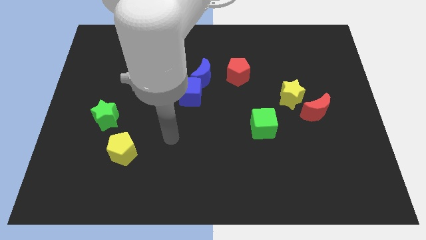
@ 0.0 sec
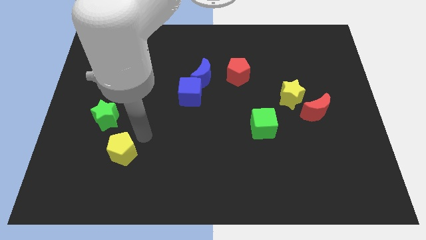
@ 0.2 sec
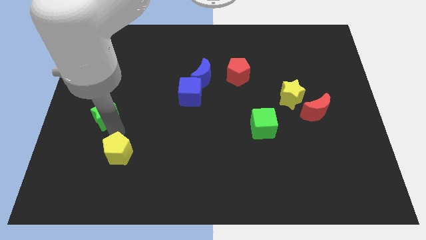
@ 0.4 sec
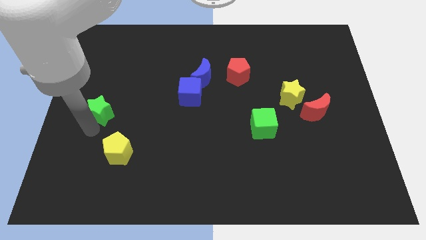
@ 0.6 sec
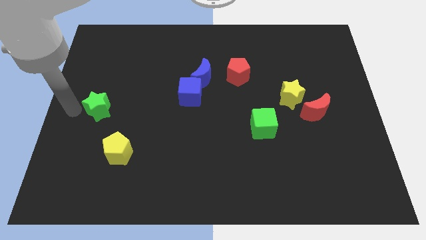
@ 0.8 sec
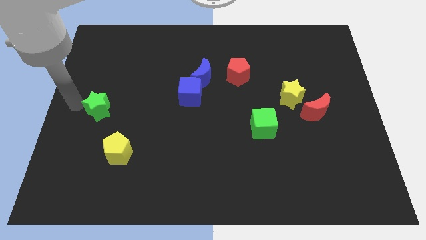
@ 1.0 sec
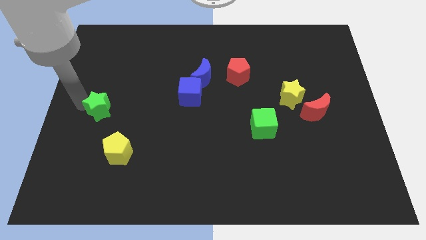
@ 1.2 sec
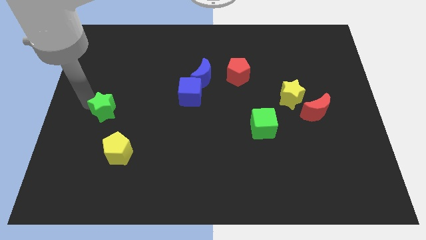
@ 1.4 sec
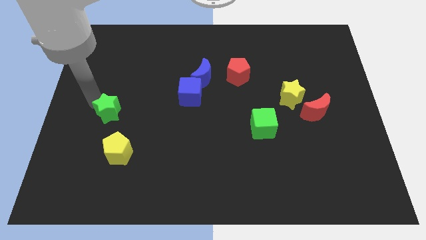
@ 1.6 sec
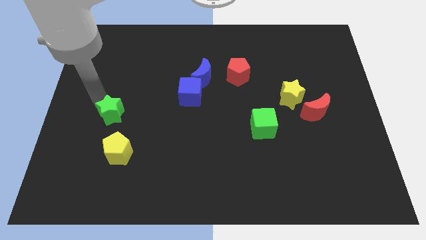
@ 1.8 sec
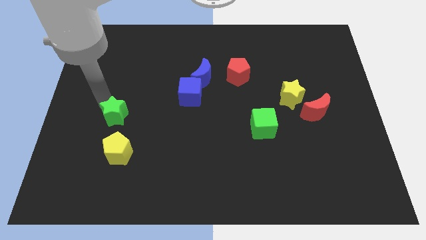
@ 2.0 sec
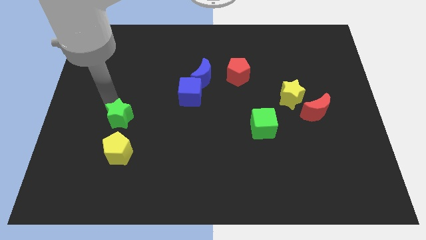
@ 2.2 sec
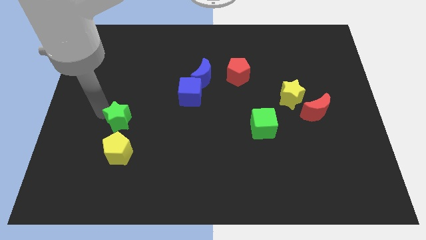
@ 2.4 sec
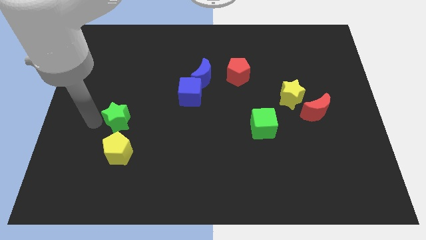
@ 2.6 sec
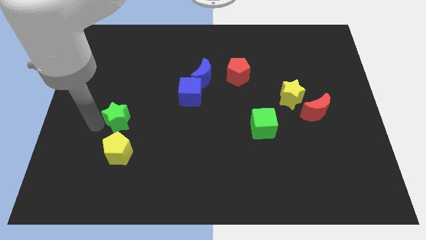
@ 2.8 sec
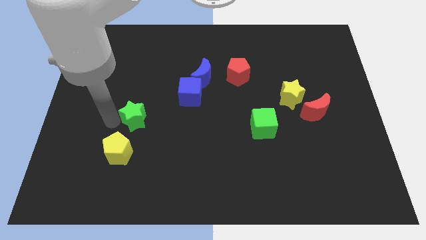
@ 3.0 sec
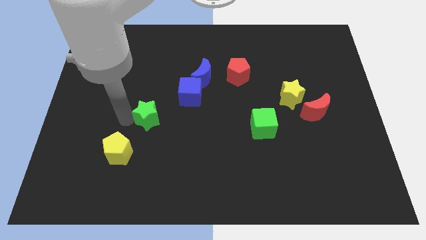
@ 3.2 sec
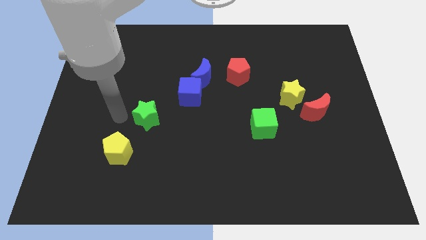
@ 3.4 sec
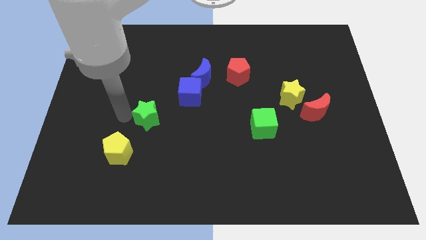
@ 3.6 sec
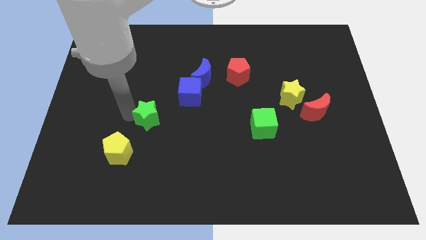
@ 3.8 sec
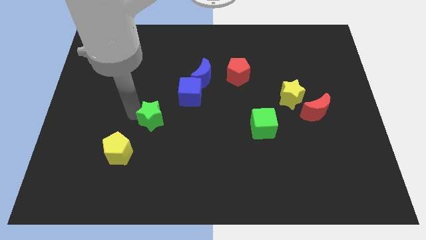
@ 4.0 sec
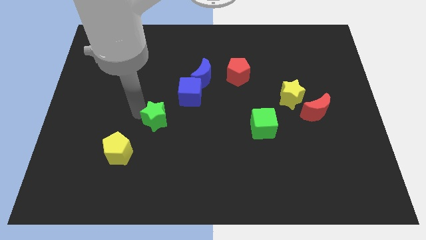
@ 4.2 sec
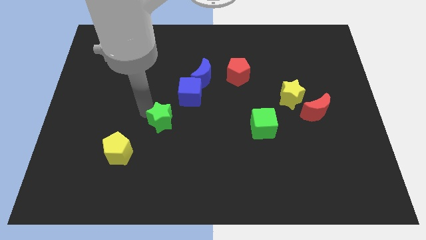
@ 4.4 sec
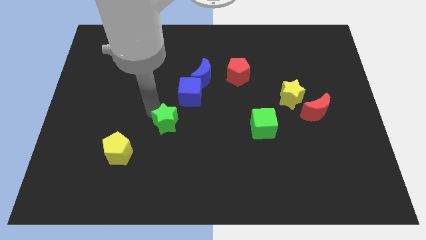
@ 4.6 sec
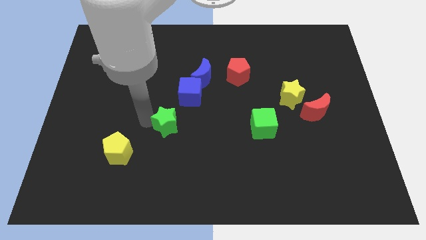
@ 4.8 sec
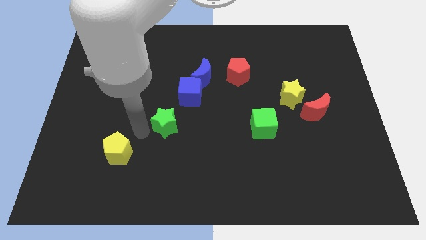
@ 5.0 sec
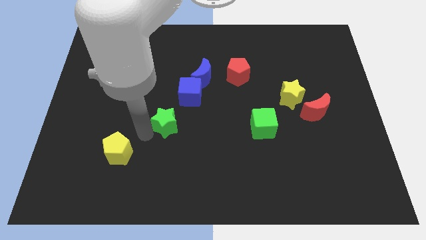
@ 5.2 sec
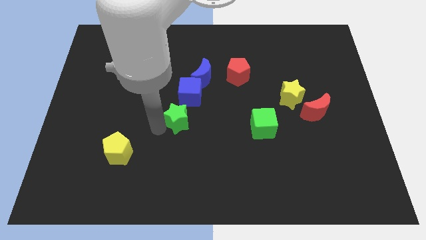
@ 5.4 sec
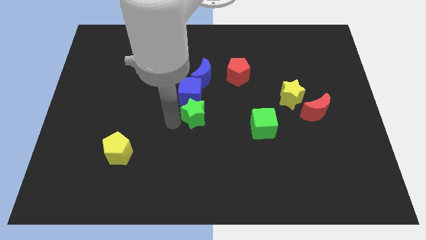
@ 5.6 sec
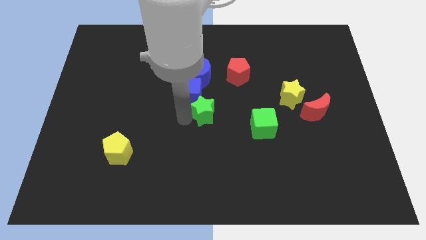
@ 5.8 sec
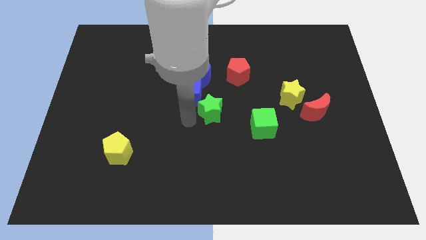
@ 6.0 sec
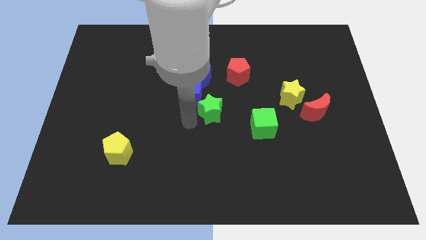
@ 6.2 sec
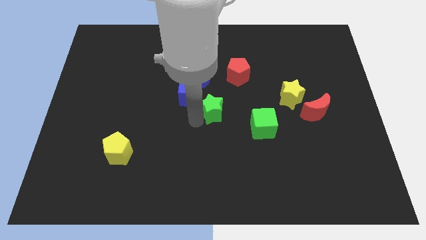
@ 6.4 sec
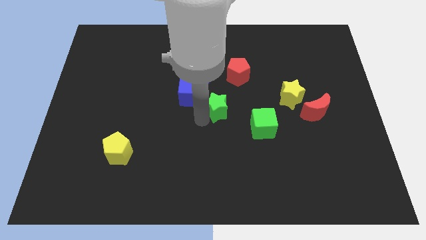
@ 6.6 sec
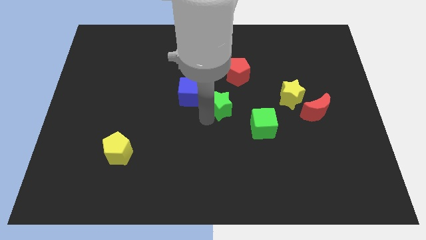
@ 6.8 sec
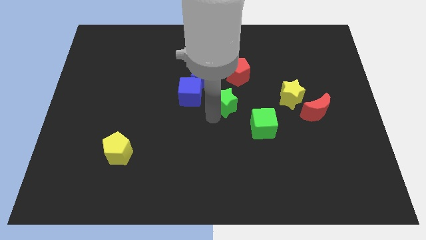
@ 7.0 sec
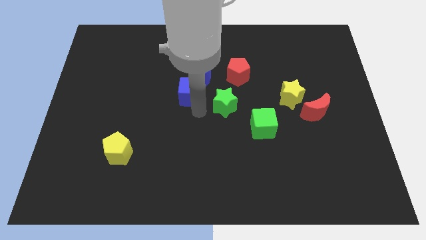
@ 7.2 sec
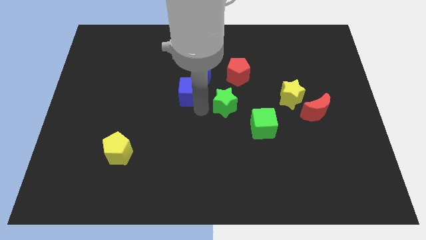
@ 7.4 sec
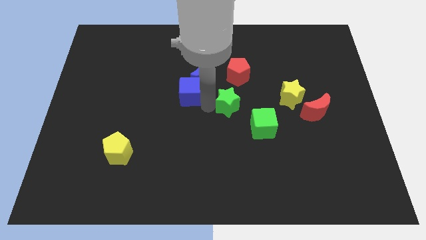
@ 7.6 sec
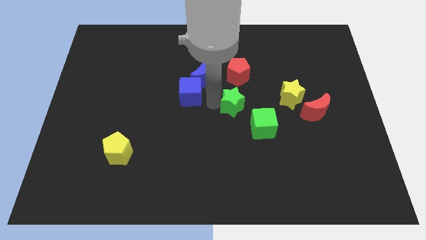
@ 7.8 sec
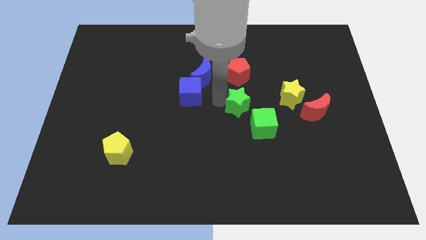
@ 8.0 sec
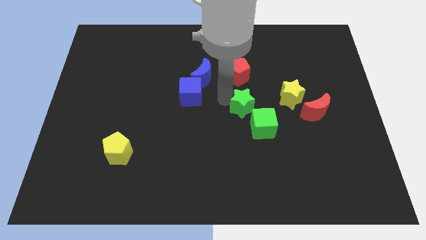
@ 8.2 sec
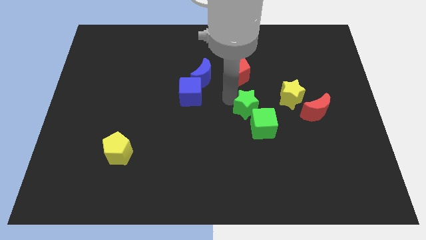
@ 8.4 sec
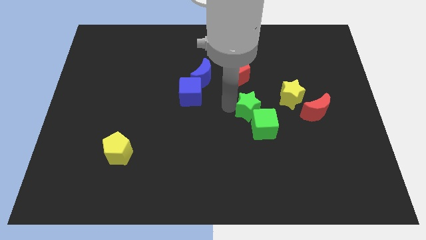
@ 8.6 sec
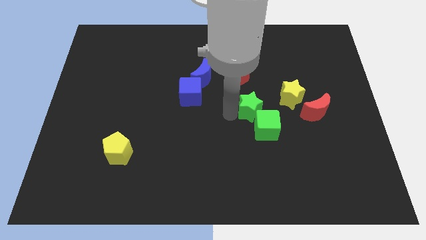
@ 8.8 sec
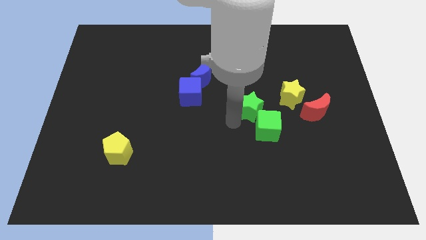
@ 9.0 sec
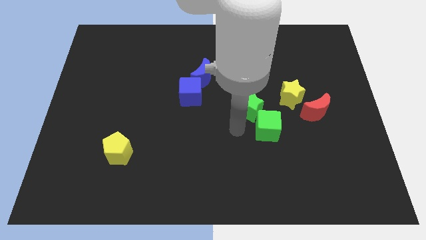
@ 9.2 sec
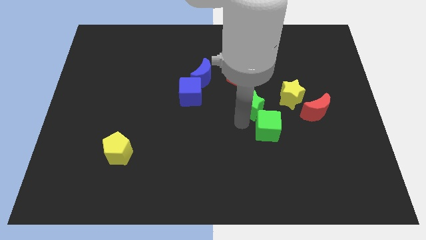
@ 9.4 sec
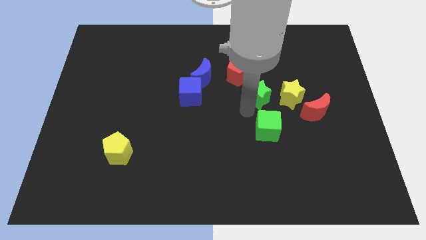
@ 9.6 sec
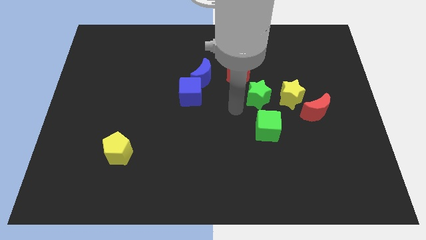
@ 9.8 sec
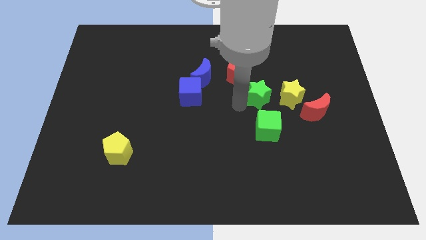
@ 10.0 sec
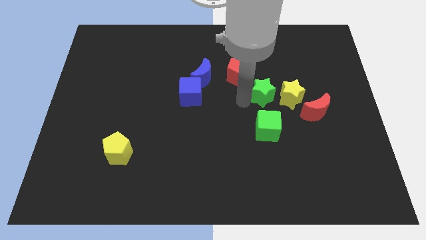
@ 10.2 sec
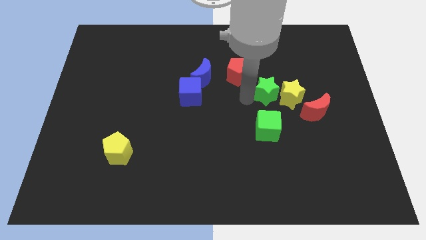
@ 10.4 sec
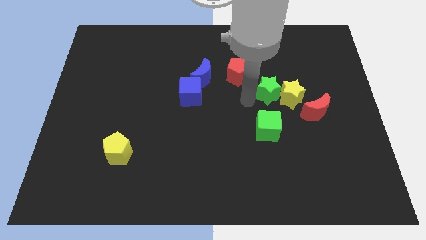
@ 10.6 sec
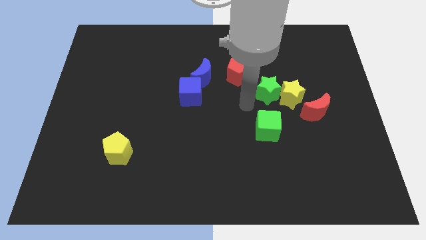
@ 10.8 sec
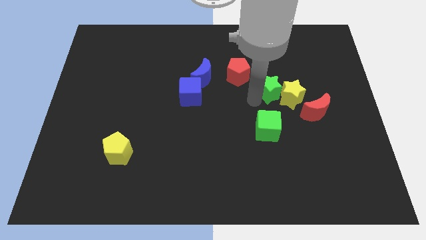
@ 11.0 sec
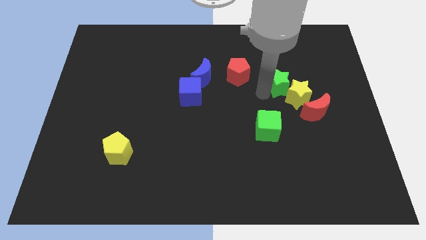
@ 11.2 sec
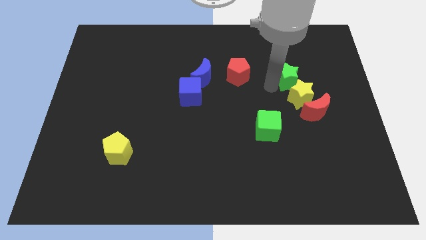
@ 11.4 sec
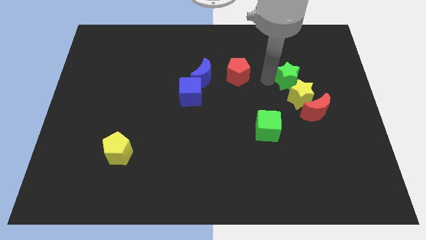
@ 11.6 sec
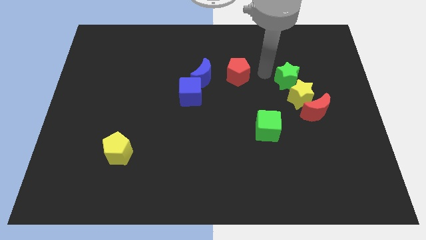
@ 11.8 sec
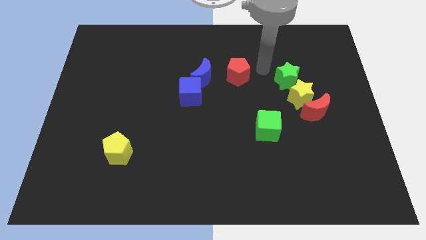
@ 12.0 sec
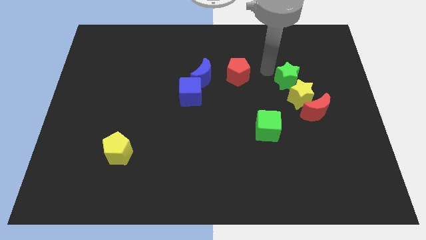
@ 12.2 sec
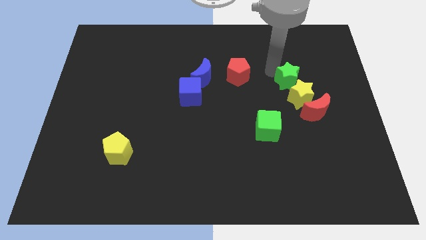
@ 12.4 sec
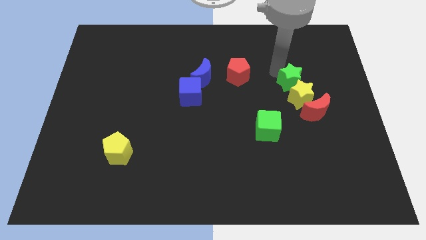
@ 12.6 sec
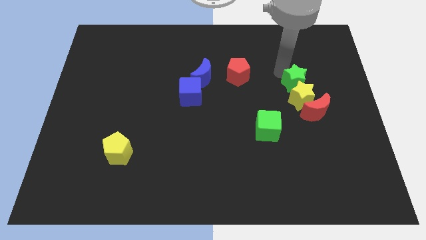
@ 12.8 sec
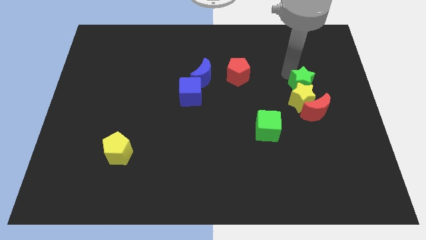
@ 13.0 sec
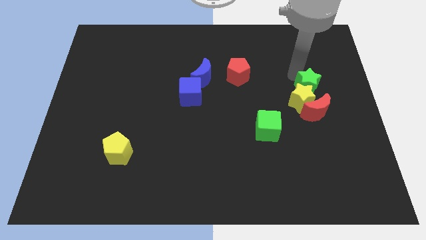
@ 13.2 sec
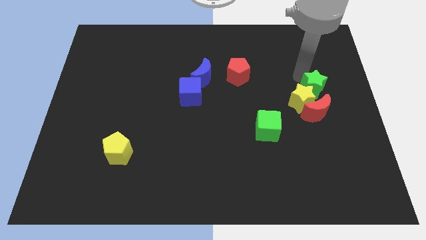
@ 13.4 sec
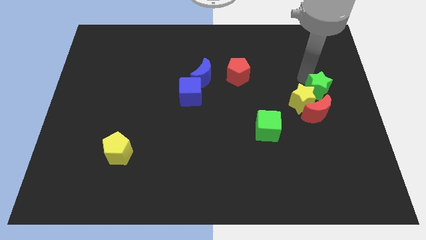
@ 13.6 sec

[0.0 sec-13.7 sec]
slide the green star to the right side
